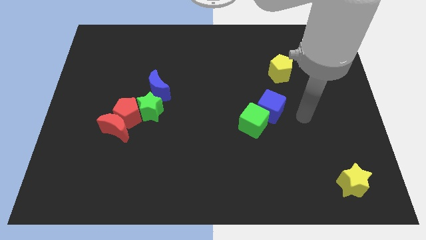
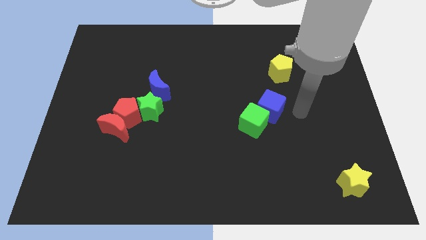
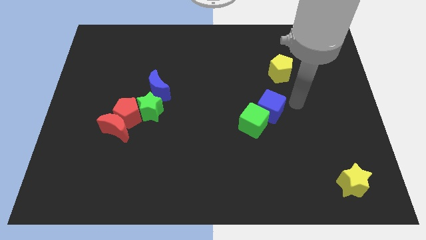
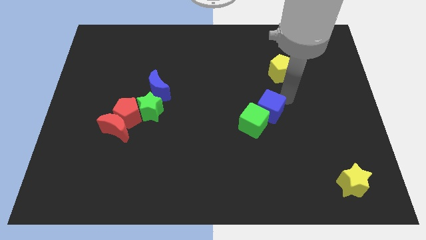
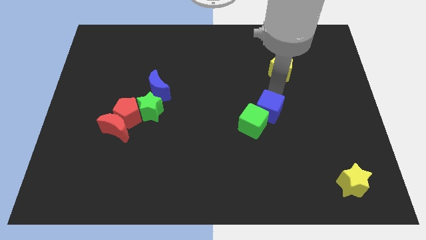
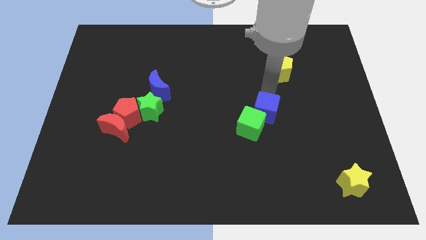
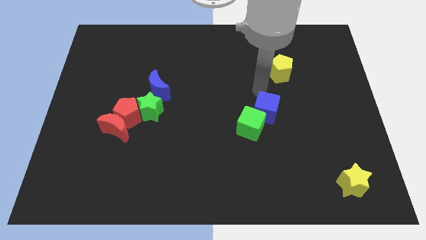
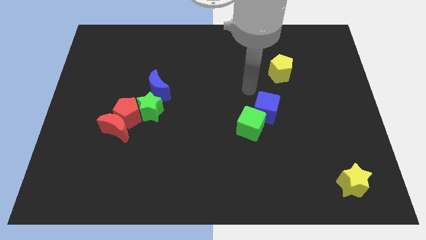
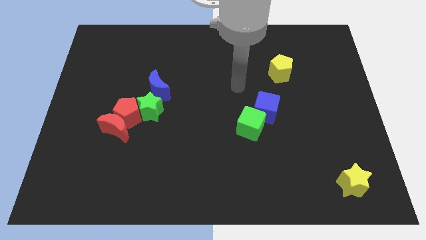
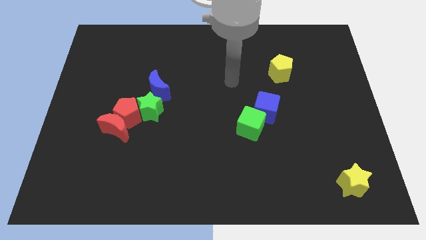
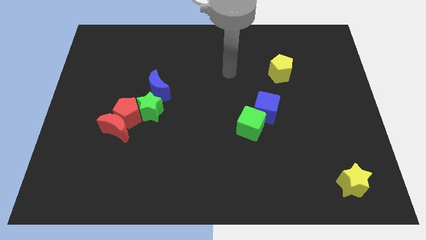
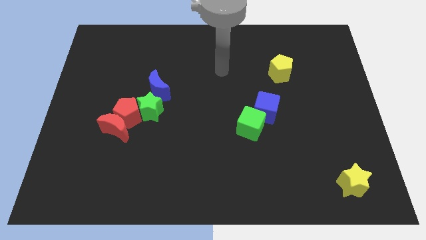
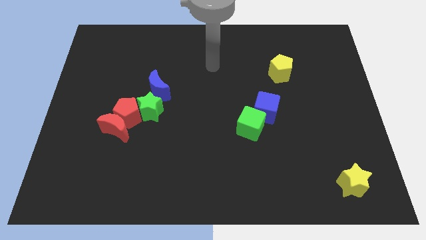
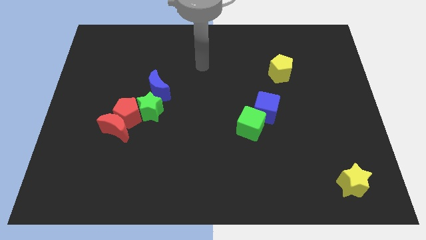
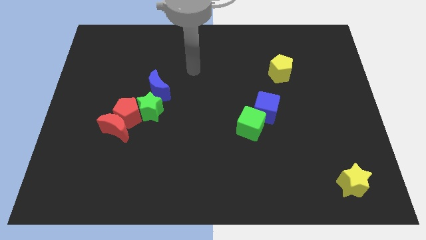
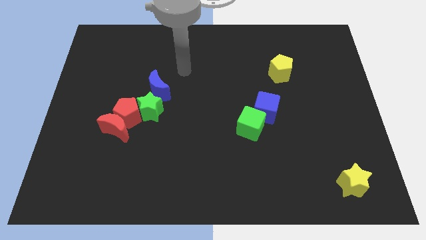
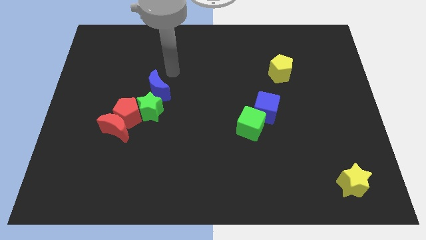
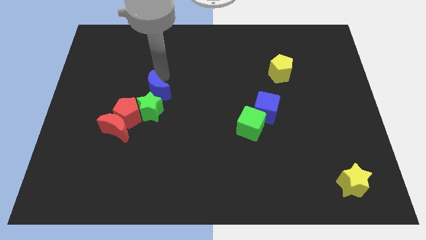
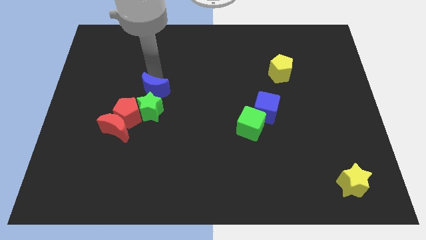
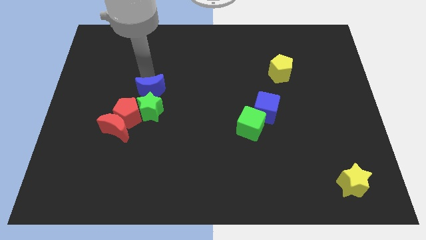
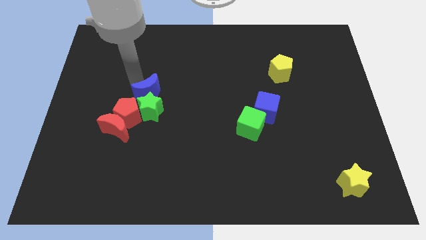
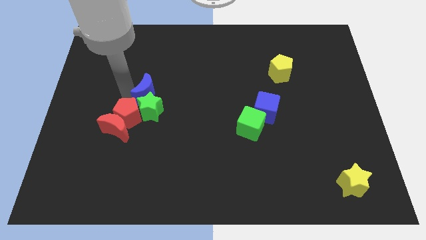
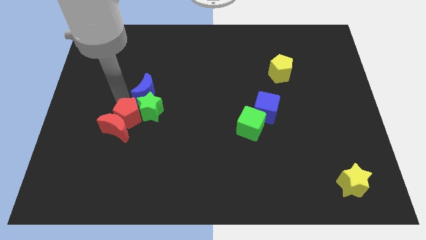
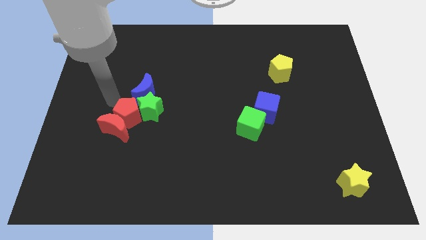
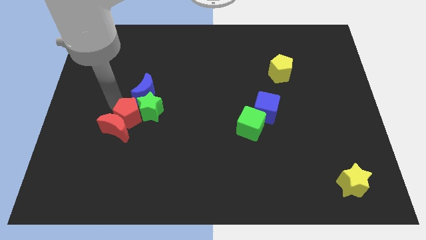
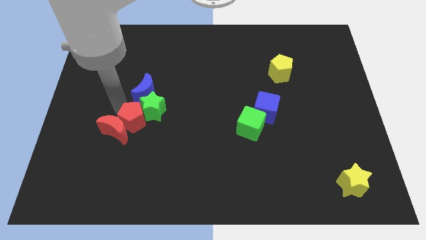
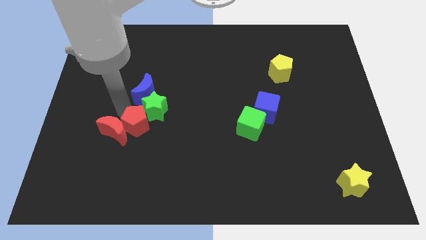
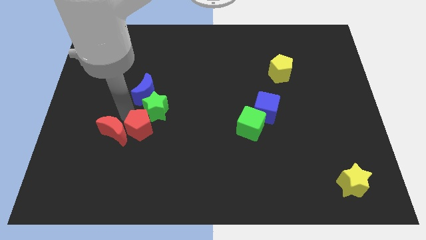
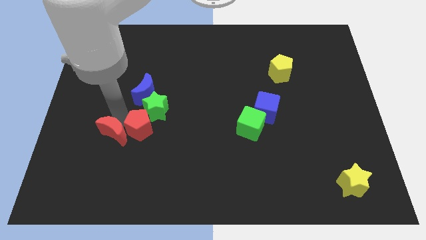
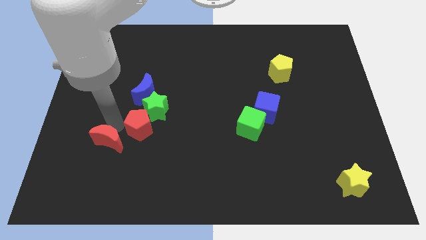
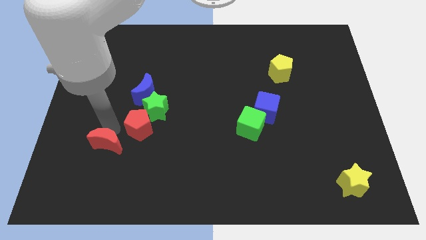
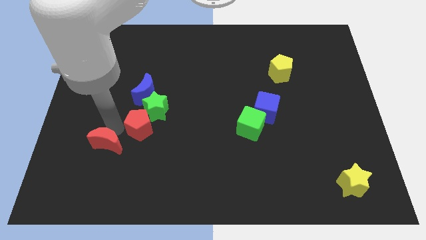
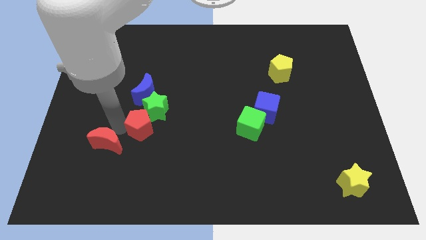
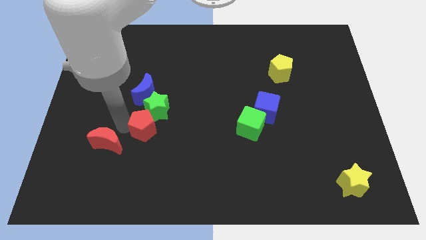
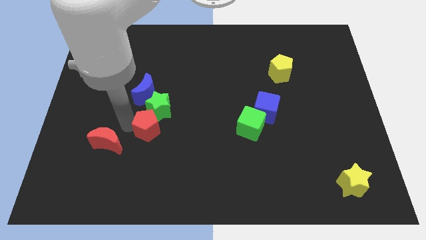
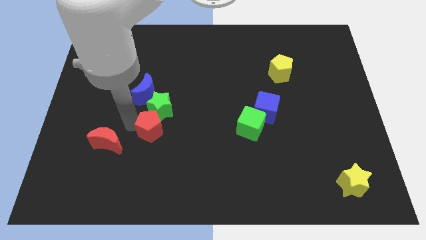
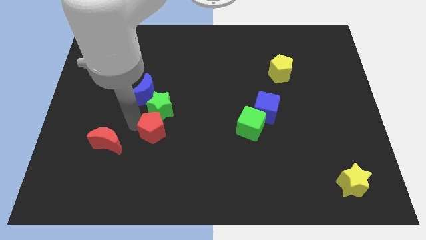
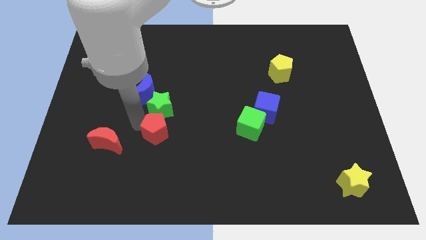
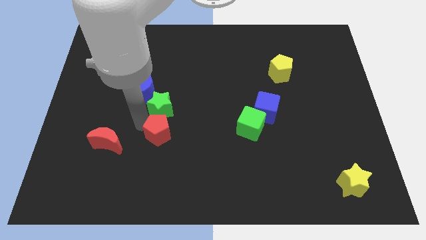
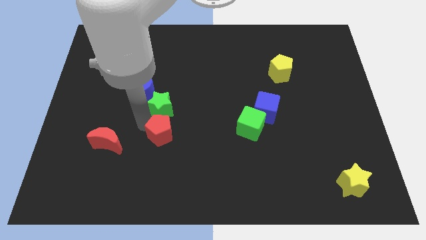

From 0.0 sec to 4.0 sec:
slide the red pentagon slightly right

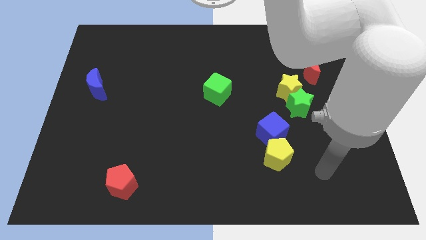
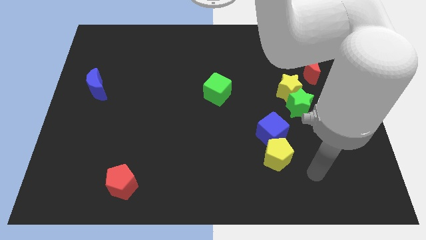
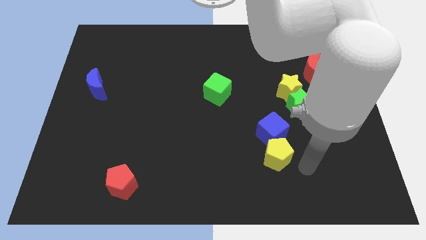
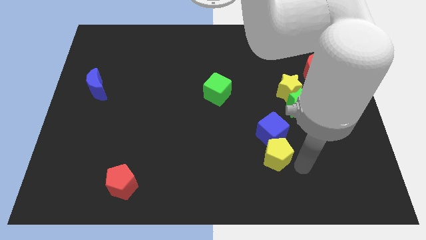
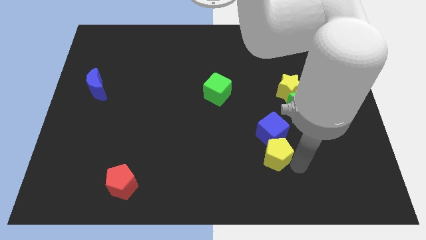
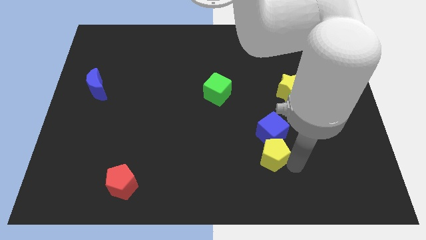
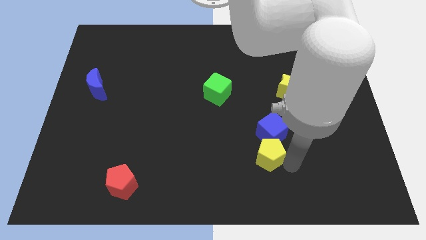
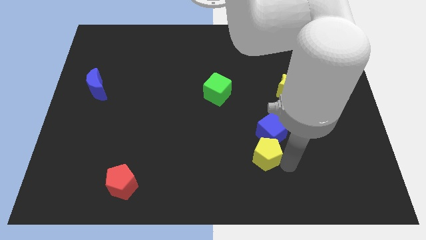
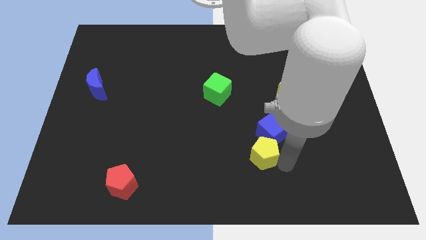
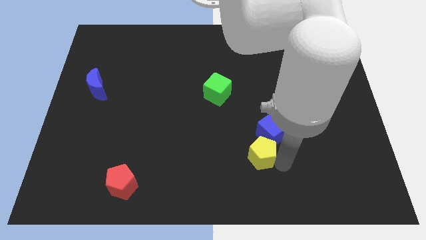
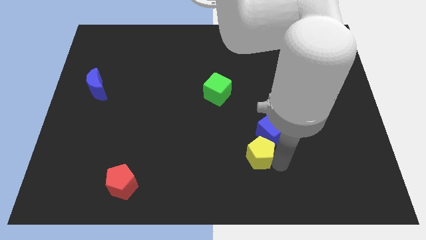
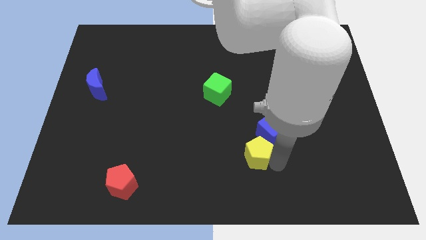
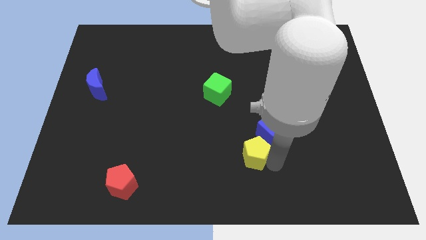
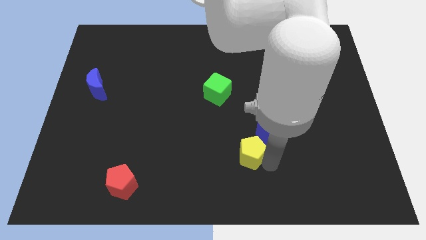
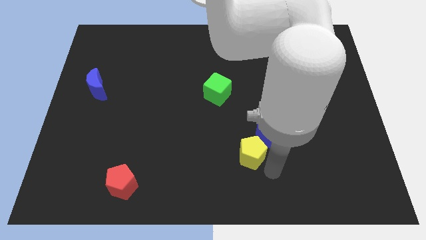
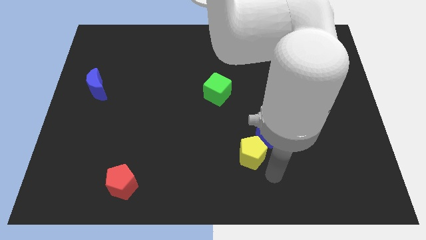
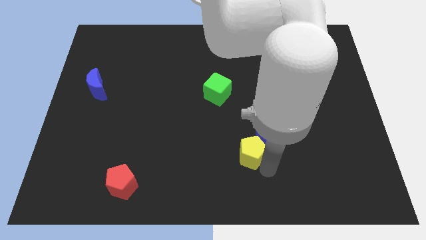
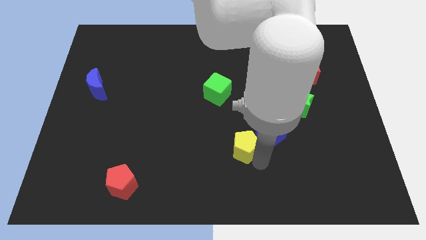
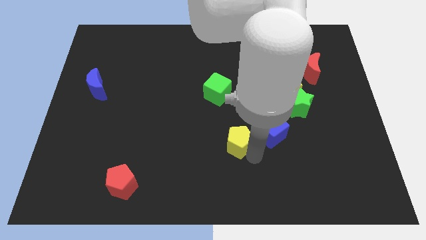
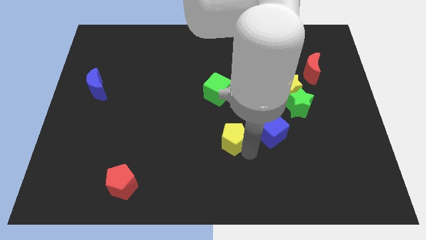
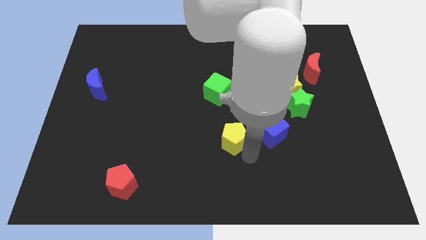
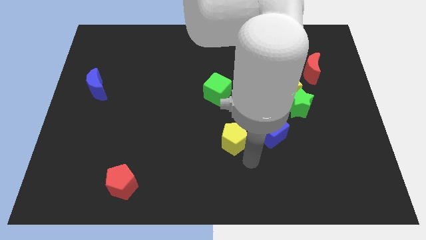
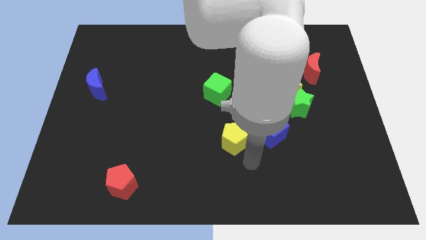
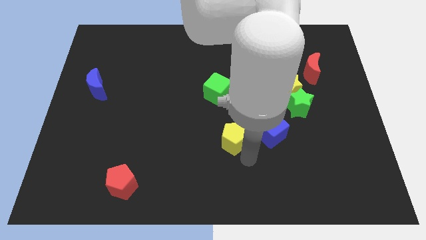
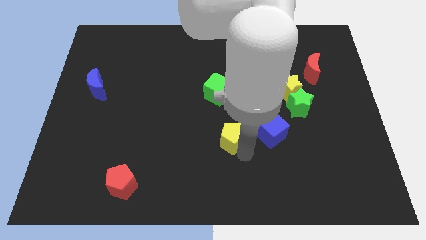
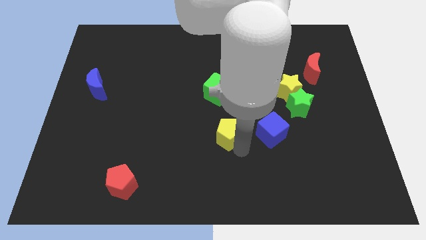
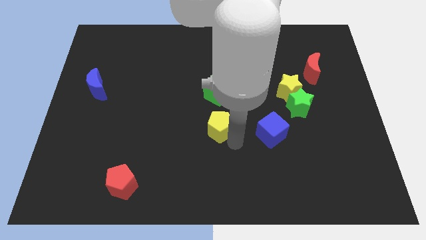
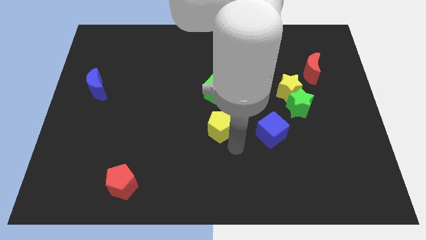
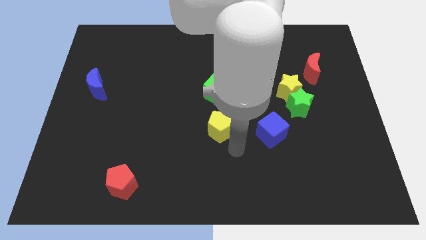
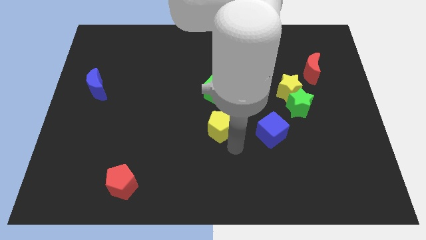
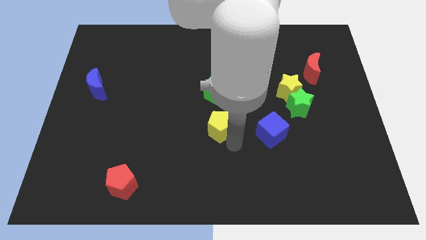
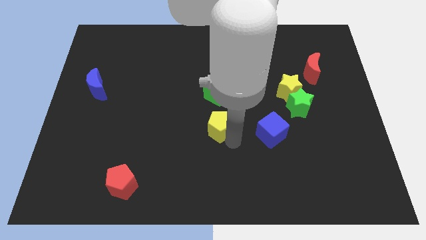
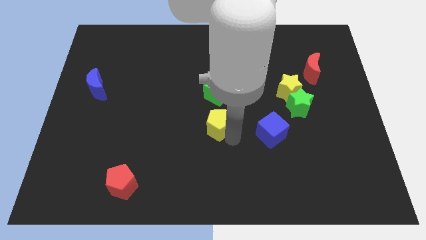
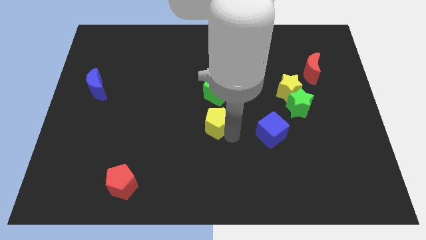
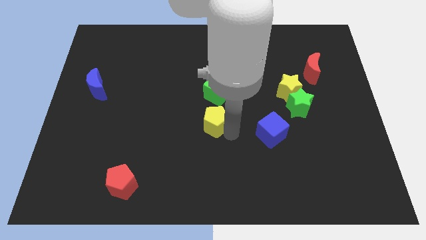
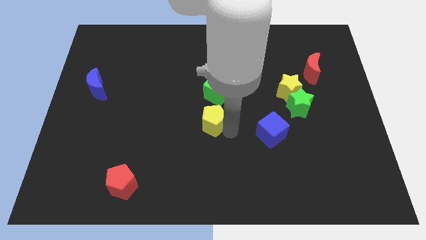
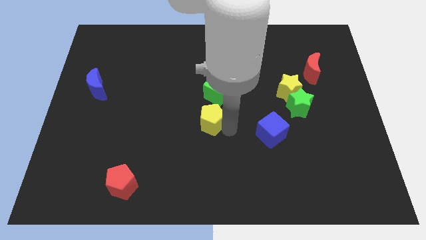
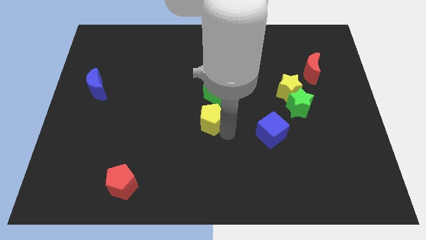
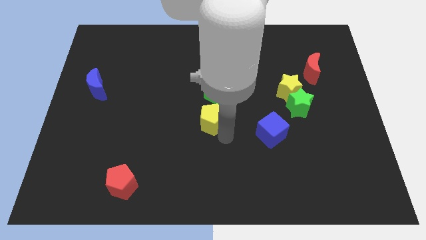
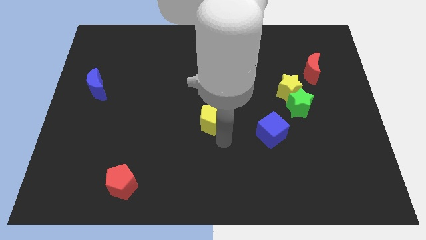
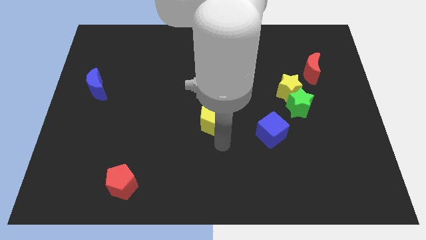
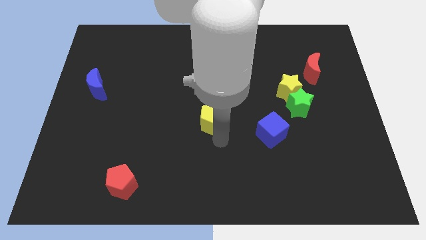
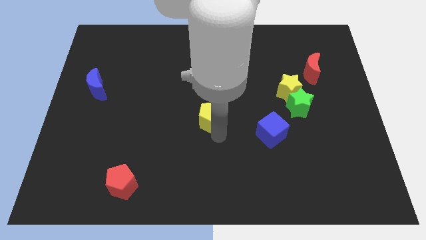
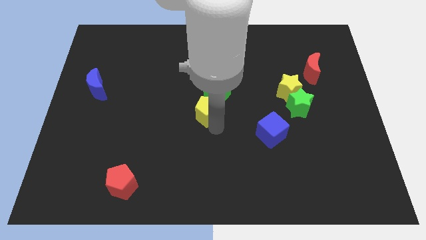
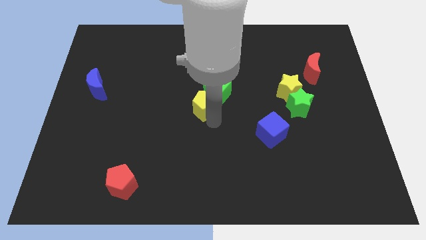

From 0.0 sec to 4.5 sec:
move the yellow pentagon up and then to the left
